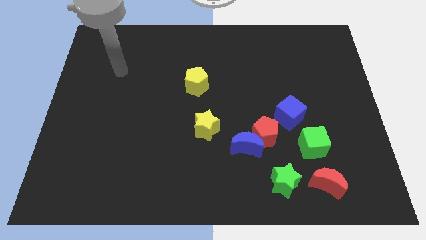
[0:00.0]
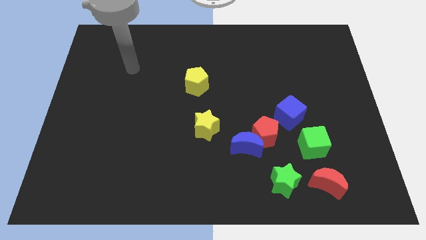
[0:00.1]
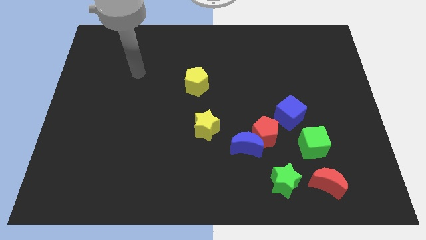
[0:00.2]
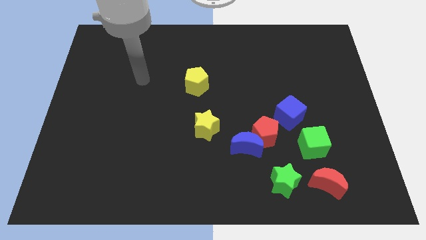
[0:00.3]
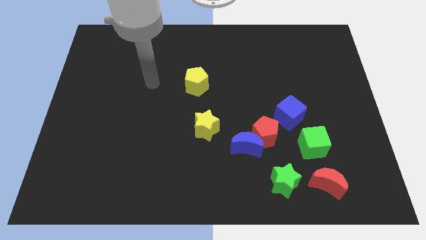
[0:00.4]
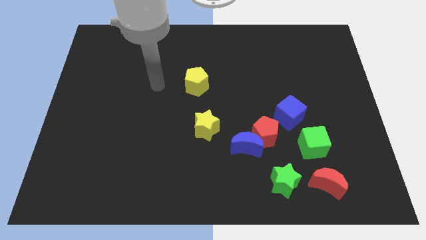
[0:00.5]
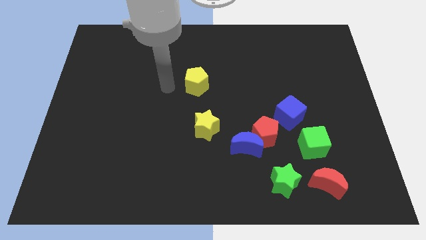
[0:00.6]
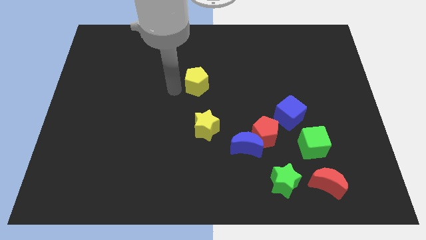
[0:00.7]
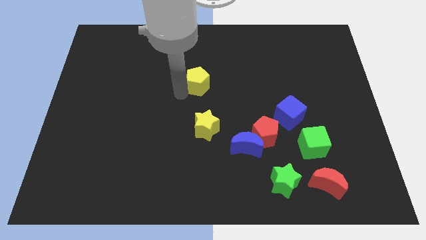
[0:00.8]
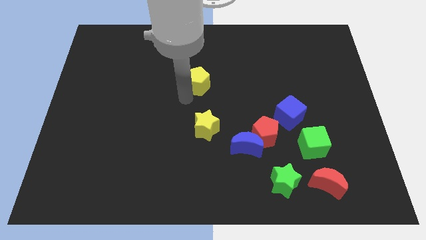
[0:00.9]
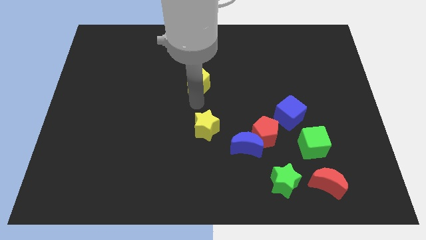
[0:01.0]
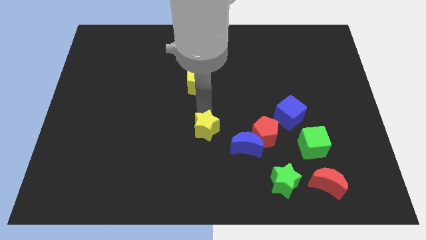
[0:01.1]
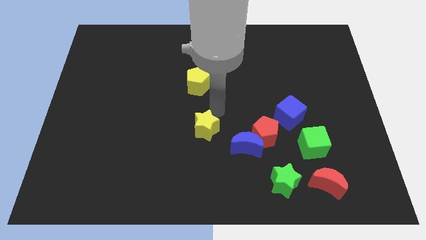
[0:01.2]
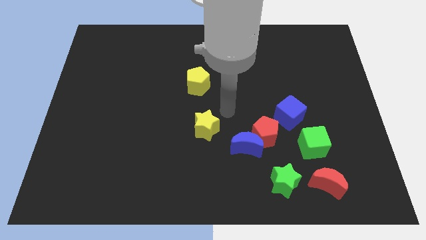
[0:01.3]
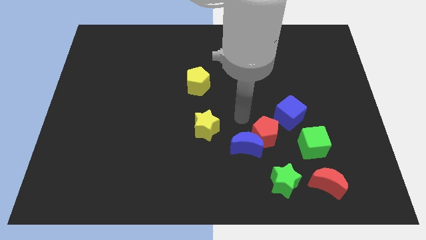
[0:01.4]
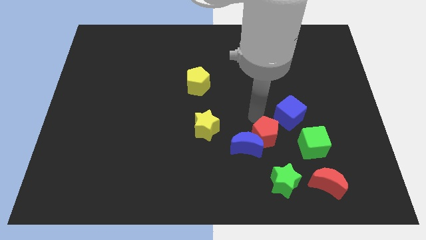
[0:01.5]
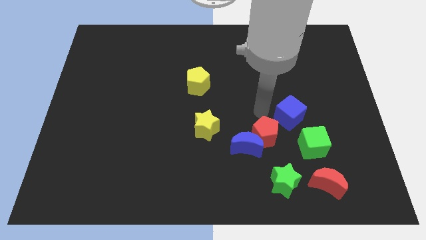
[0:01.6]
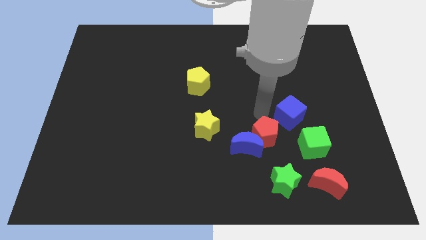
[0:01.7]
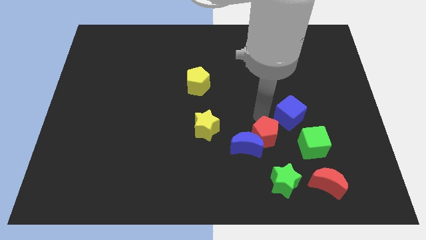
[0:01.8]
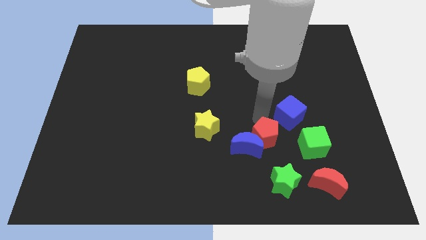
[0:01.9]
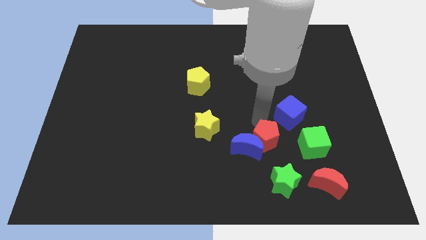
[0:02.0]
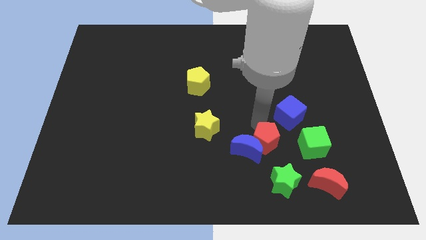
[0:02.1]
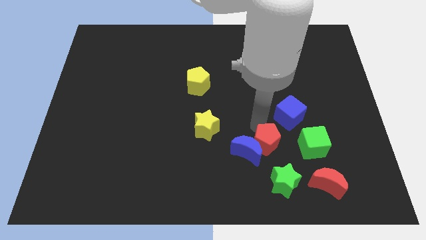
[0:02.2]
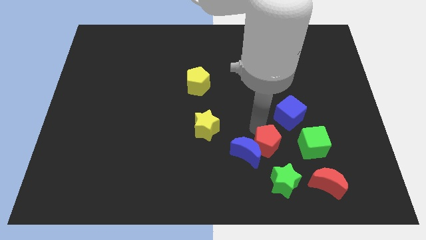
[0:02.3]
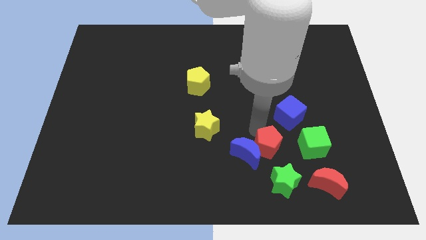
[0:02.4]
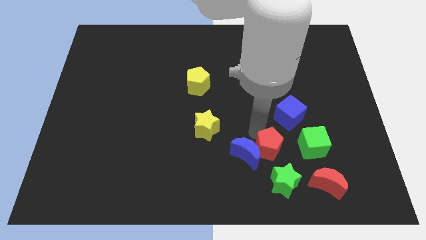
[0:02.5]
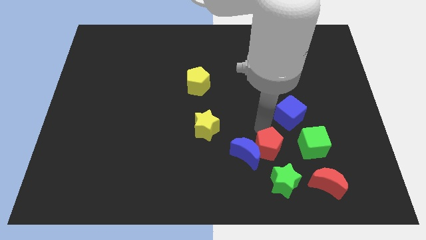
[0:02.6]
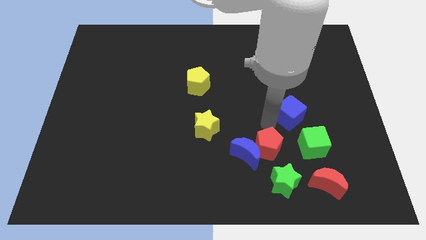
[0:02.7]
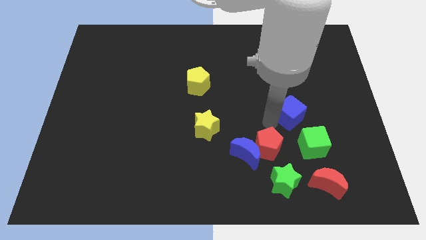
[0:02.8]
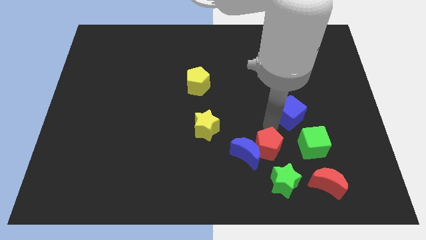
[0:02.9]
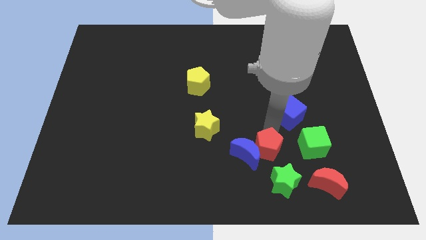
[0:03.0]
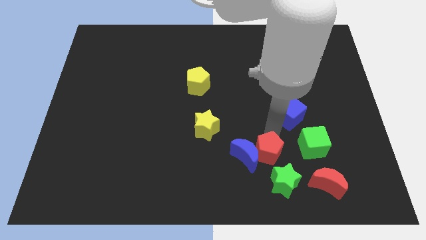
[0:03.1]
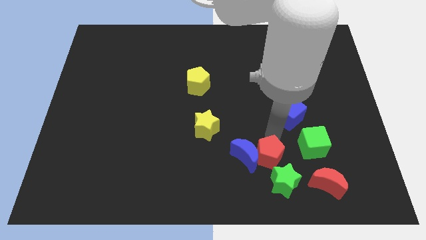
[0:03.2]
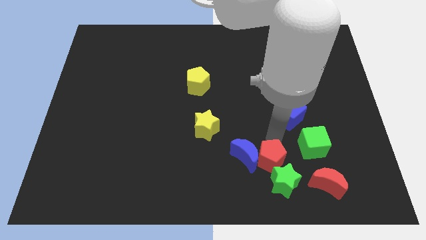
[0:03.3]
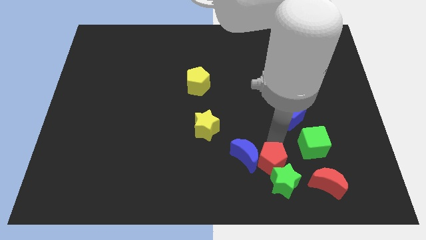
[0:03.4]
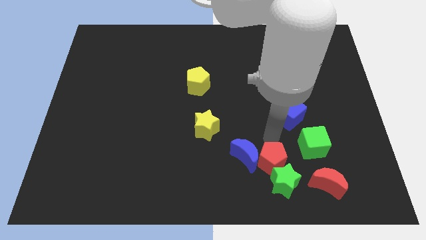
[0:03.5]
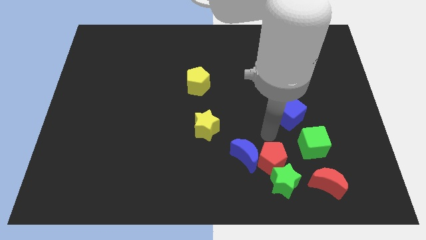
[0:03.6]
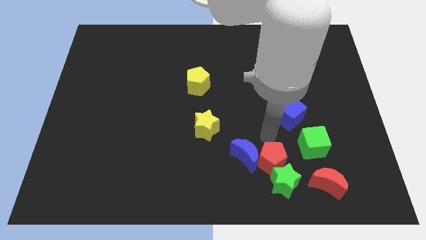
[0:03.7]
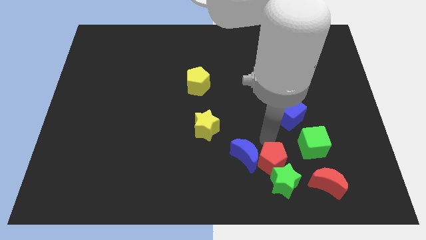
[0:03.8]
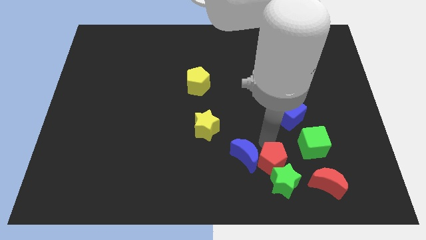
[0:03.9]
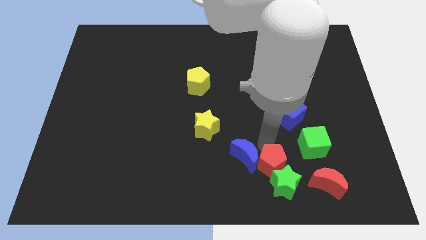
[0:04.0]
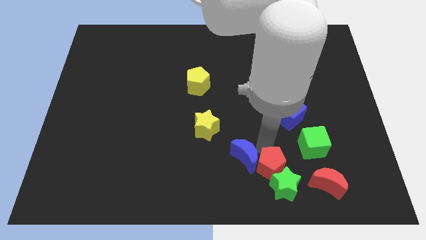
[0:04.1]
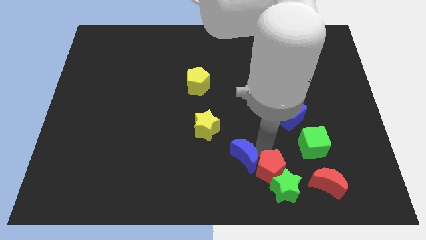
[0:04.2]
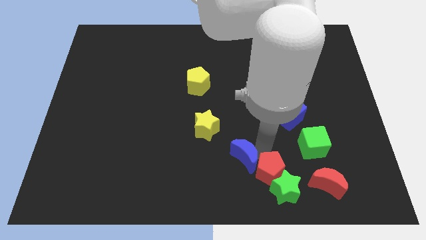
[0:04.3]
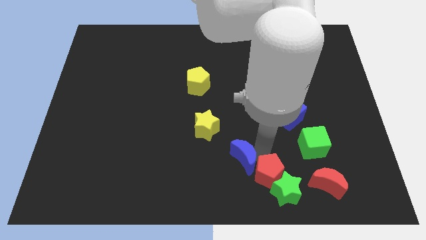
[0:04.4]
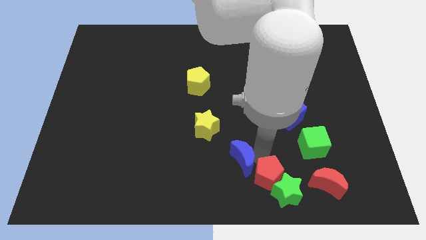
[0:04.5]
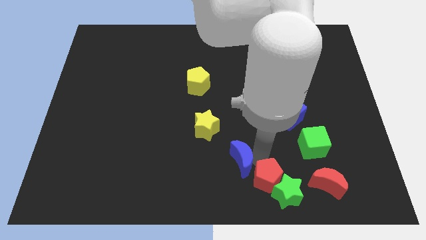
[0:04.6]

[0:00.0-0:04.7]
move the red pentagon away from the blue moon and blue cube

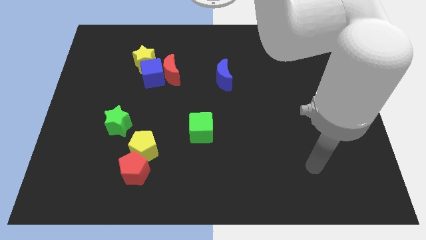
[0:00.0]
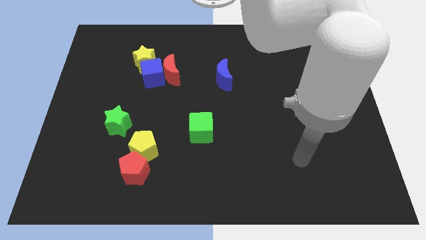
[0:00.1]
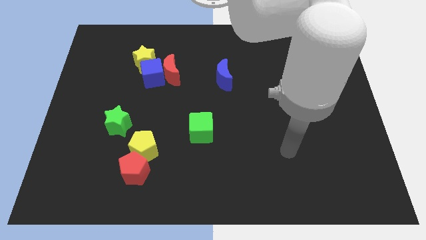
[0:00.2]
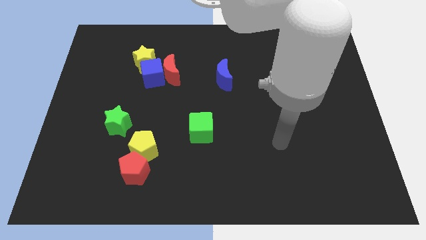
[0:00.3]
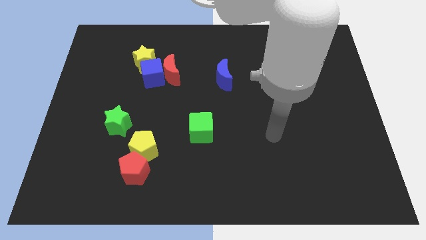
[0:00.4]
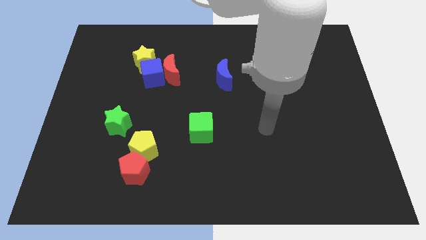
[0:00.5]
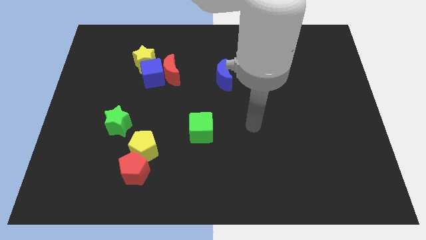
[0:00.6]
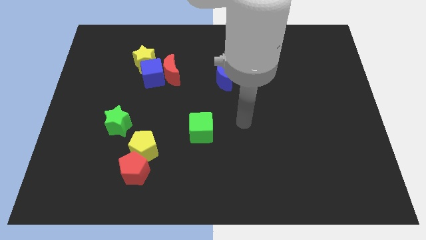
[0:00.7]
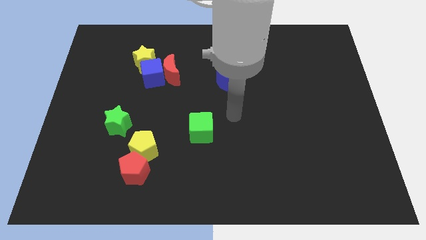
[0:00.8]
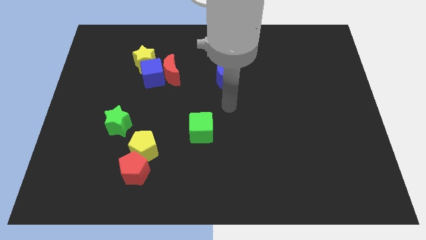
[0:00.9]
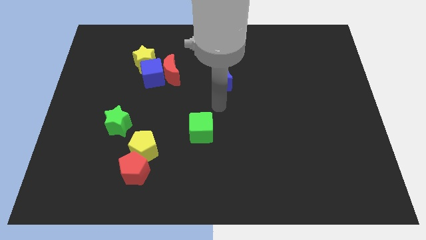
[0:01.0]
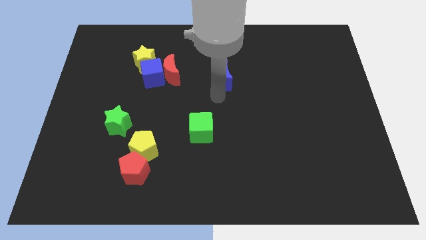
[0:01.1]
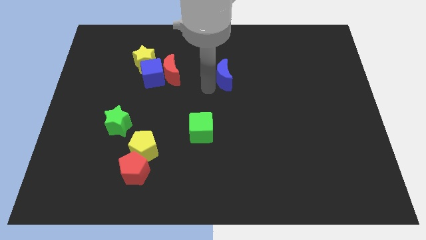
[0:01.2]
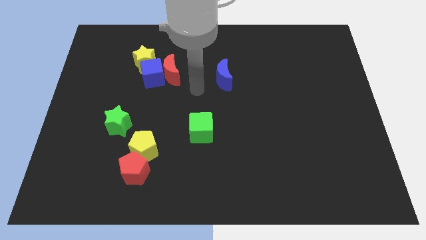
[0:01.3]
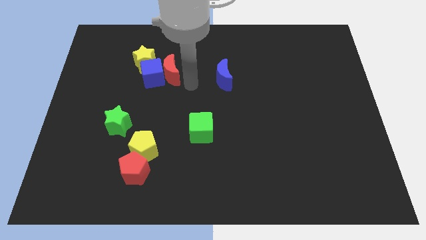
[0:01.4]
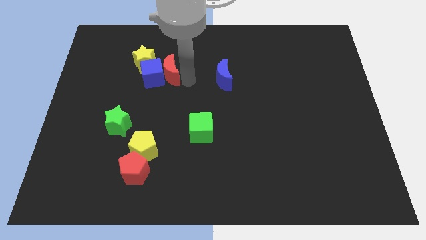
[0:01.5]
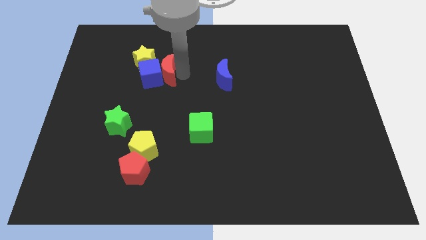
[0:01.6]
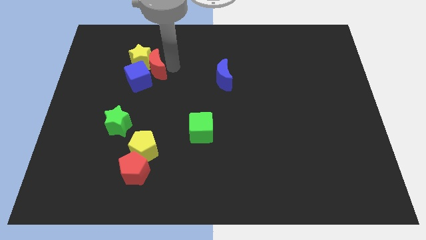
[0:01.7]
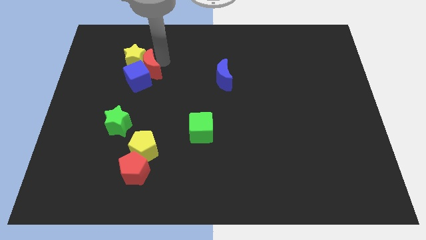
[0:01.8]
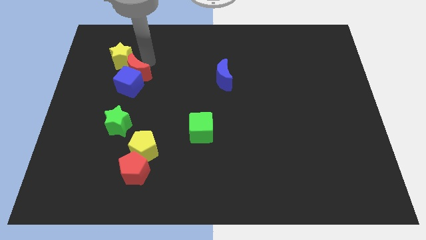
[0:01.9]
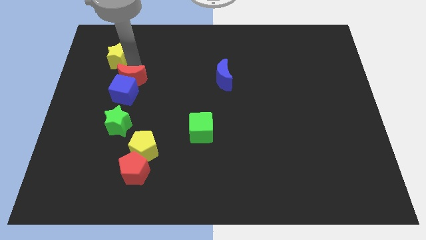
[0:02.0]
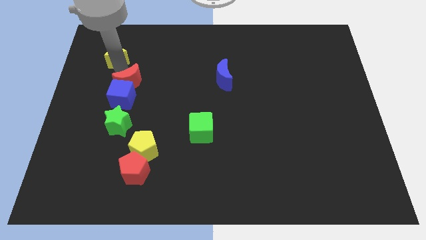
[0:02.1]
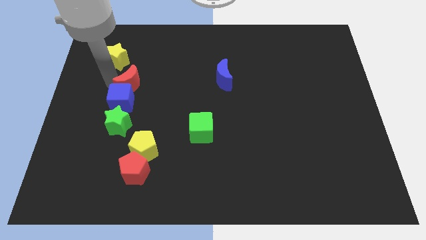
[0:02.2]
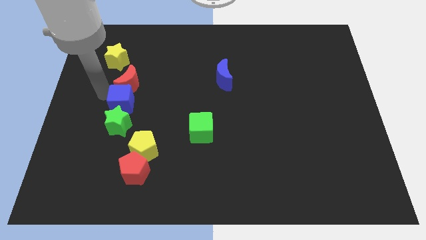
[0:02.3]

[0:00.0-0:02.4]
separate the blue cube from the red moon and yellow star

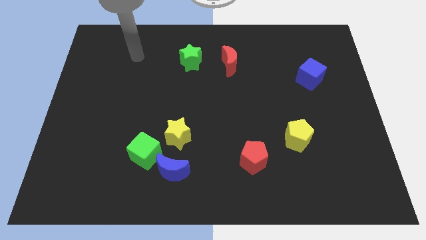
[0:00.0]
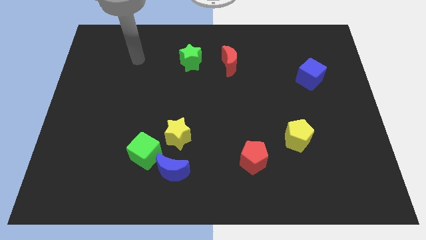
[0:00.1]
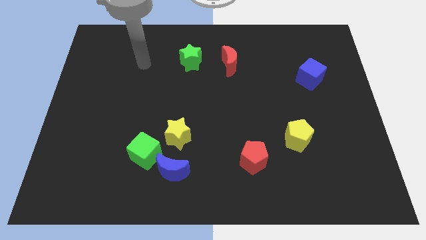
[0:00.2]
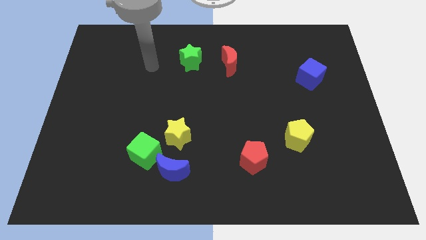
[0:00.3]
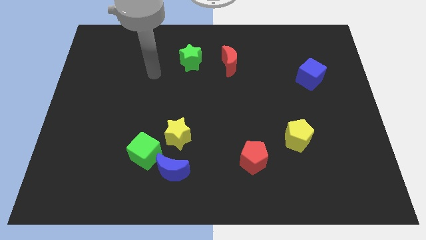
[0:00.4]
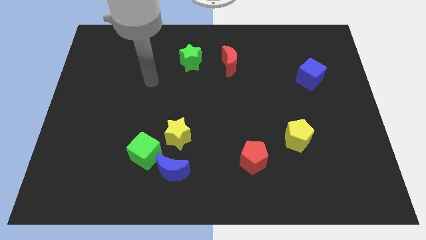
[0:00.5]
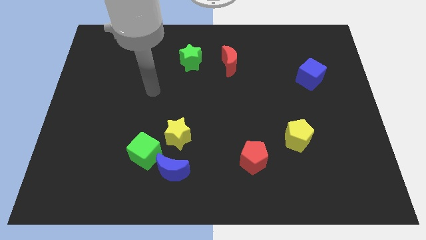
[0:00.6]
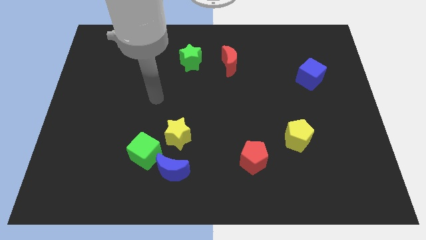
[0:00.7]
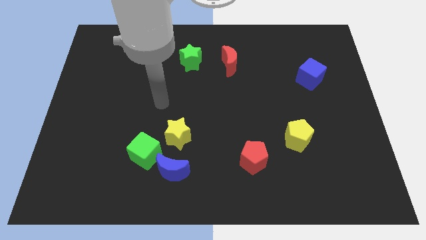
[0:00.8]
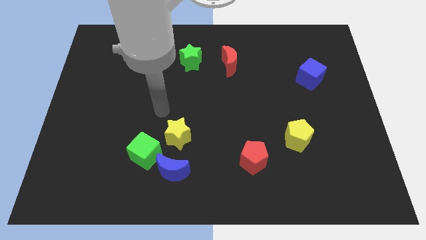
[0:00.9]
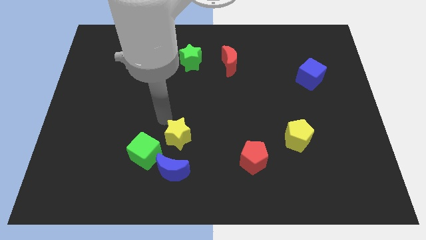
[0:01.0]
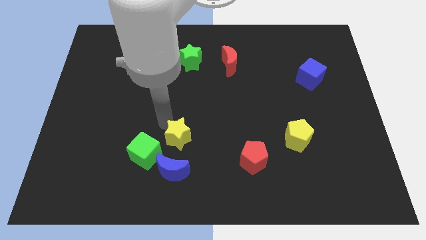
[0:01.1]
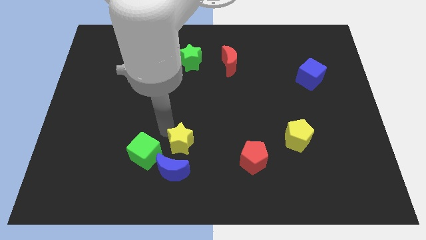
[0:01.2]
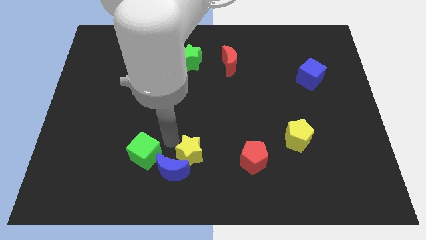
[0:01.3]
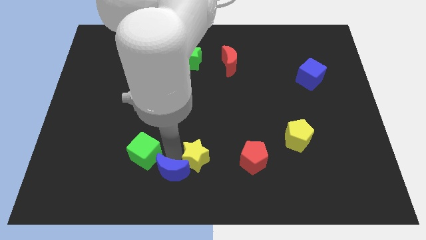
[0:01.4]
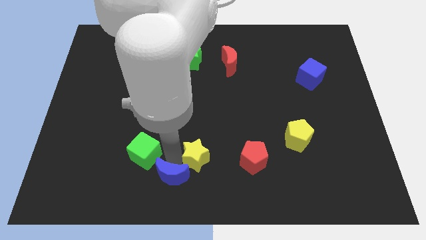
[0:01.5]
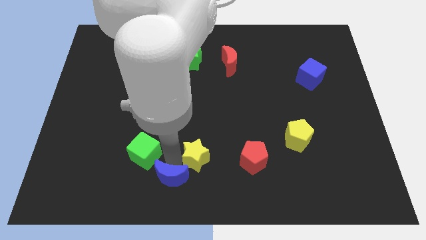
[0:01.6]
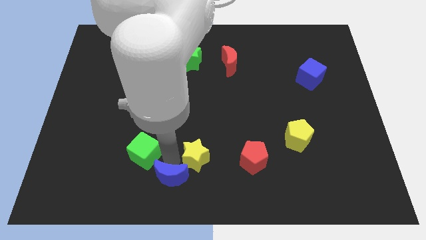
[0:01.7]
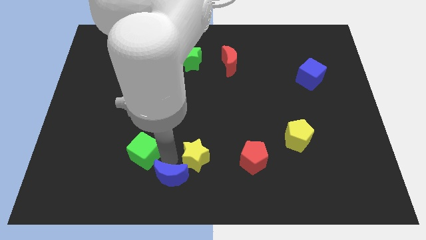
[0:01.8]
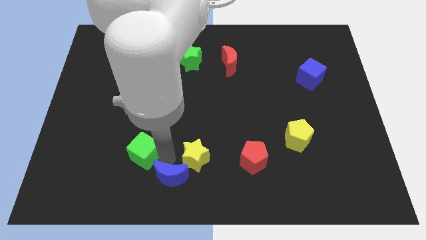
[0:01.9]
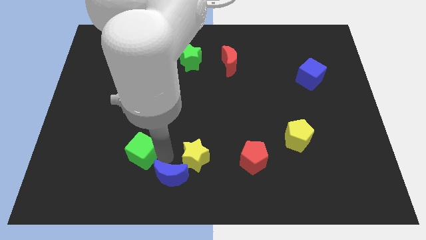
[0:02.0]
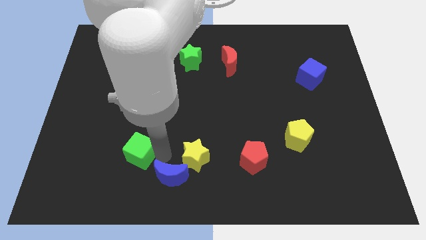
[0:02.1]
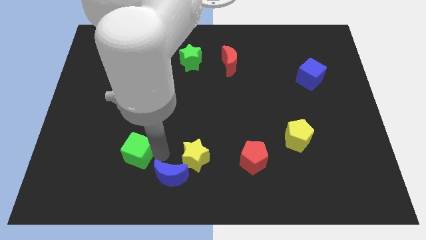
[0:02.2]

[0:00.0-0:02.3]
pull the green cube apart from the blue moon and yellow star
